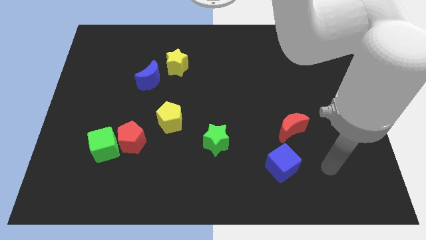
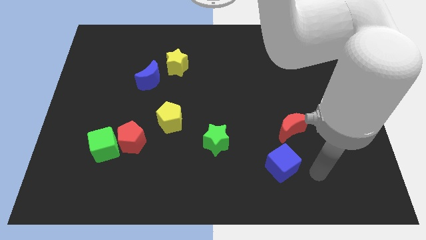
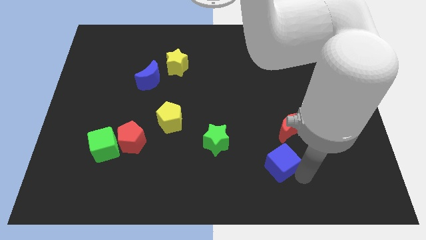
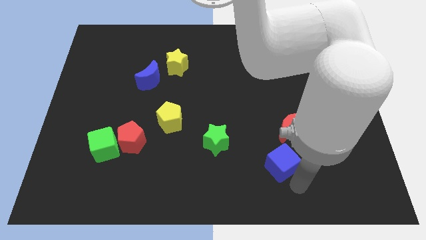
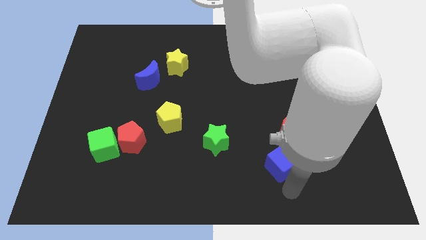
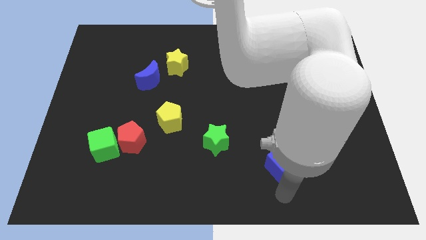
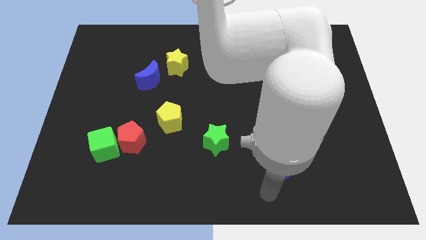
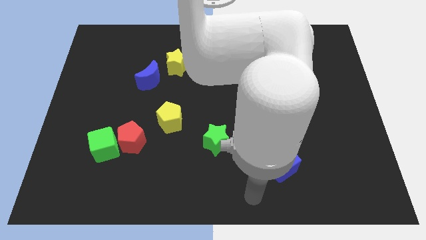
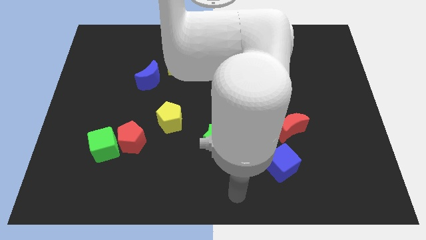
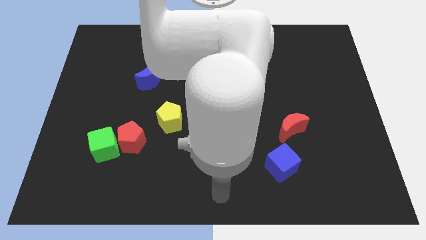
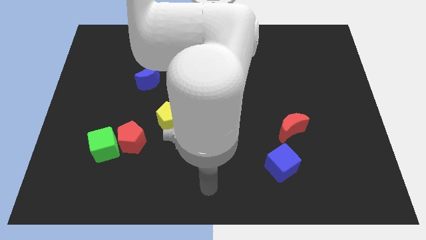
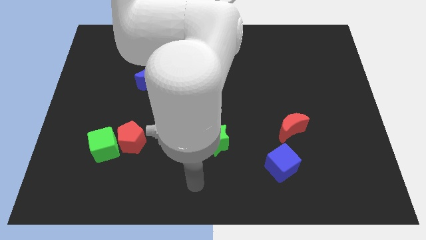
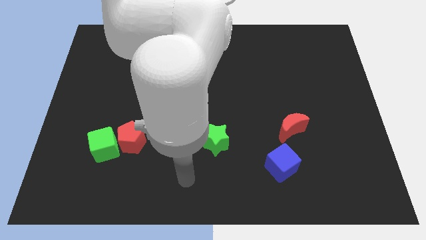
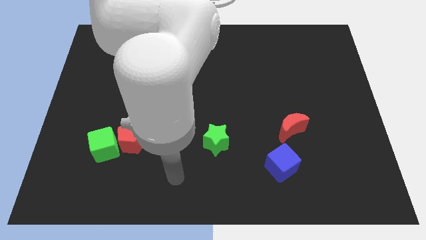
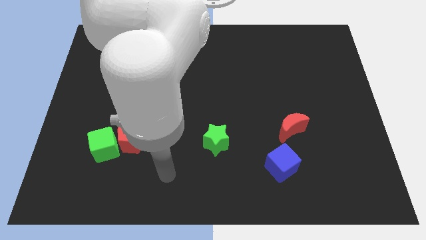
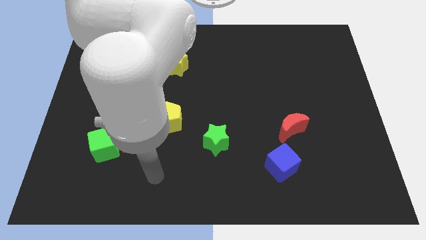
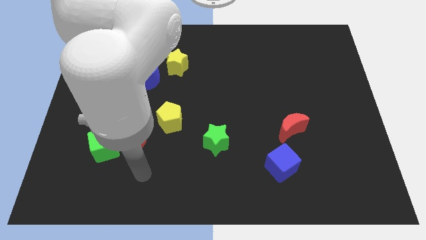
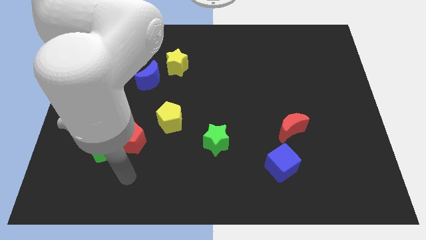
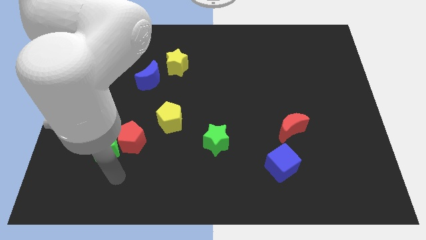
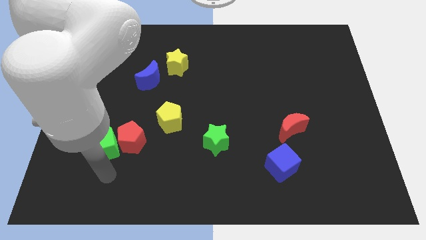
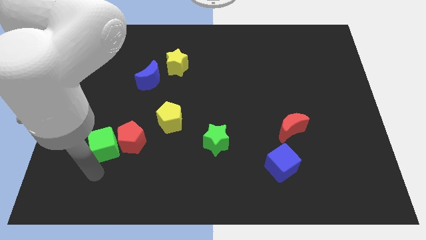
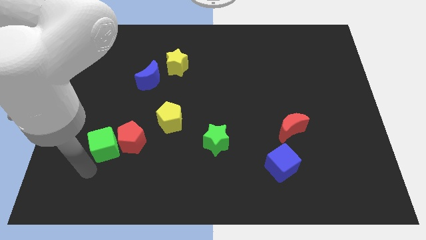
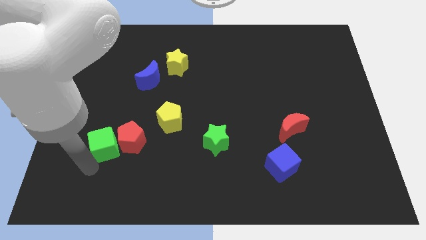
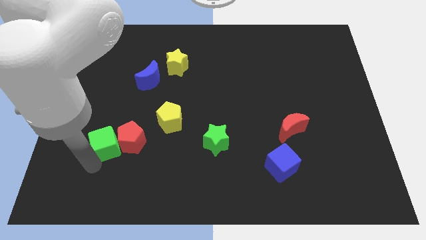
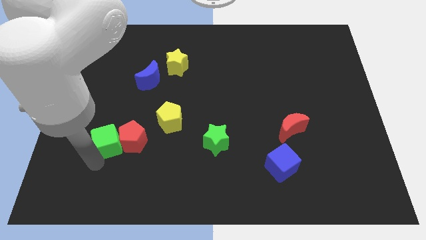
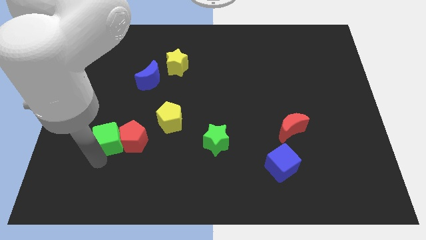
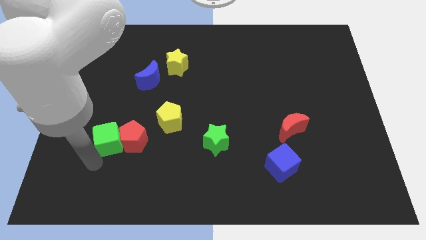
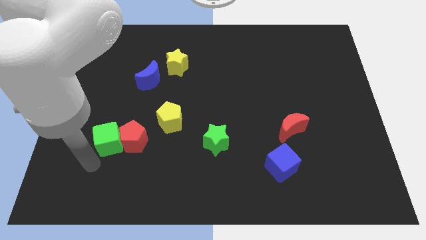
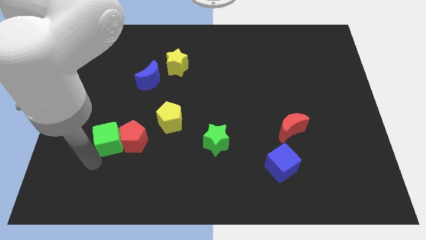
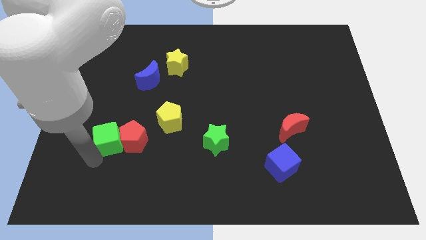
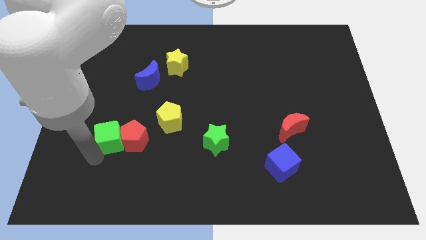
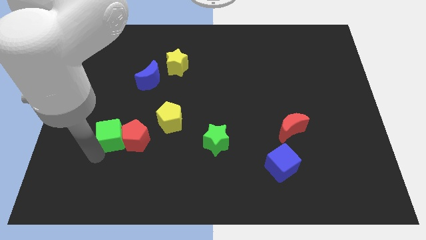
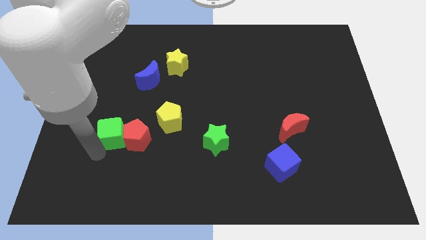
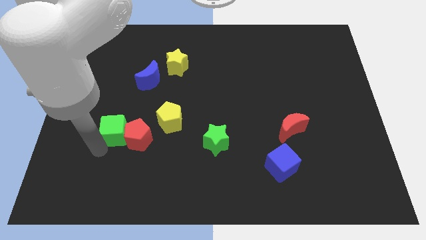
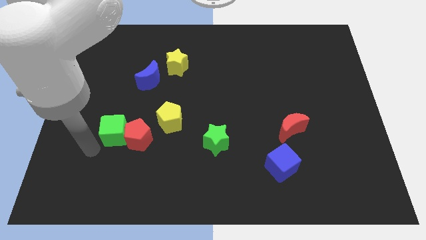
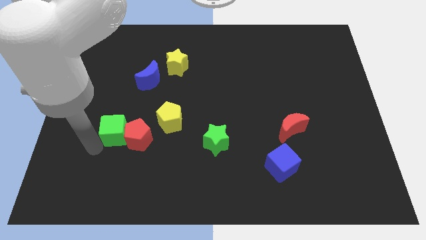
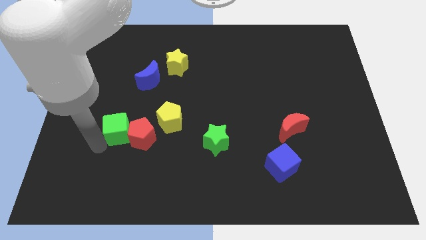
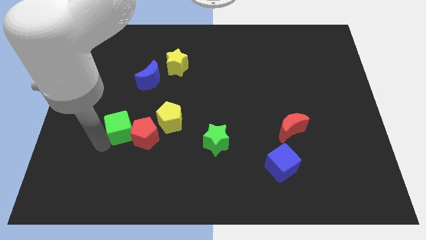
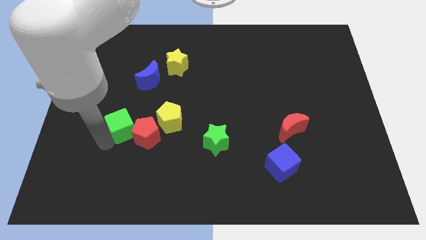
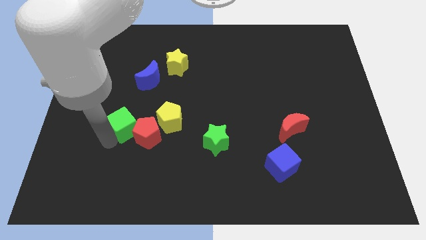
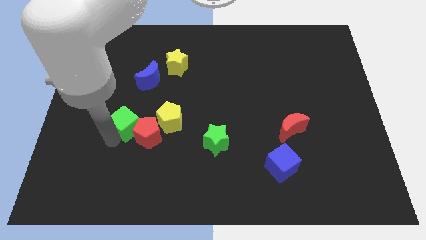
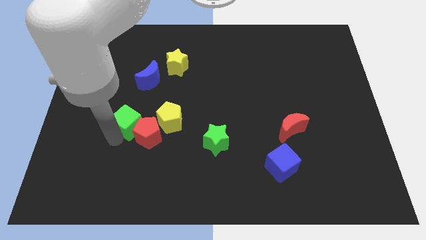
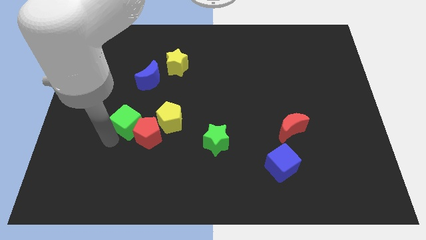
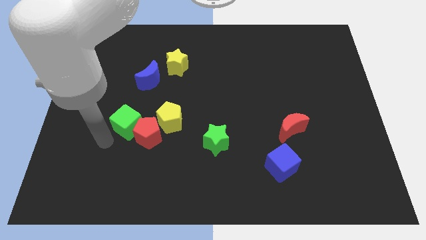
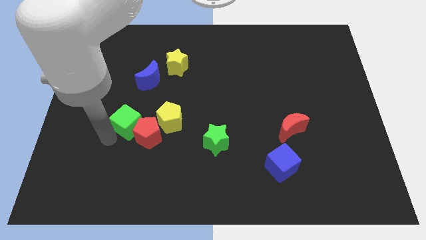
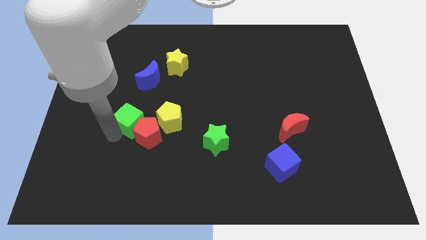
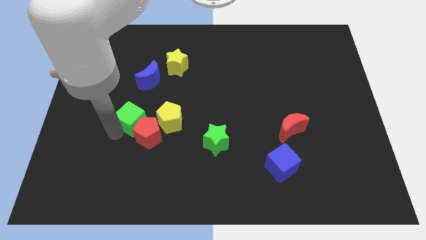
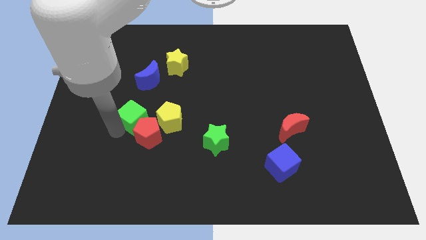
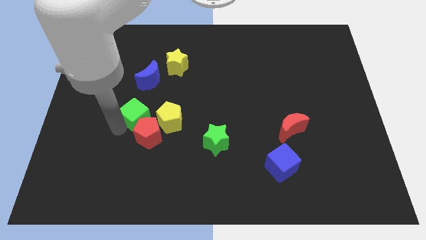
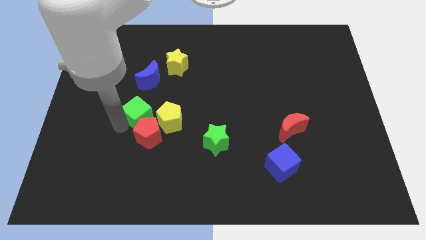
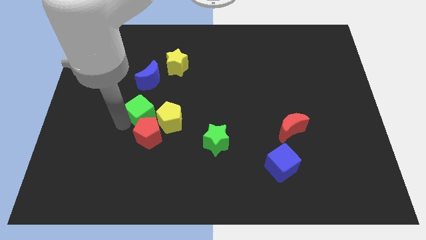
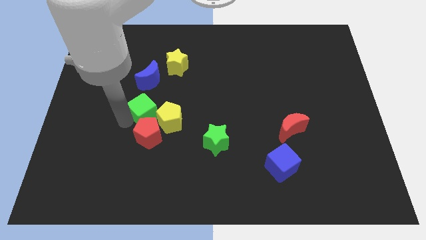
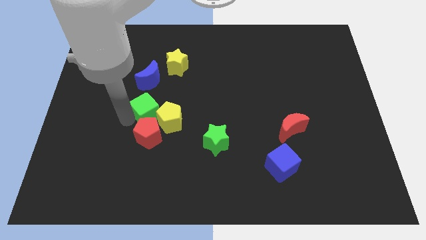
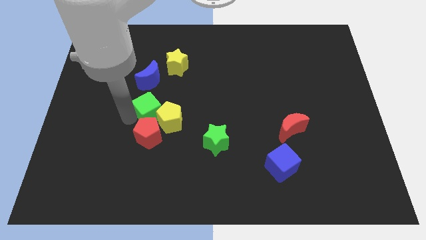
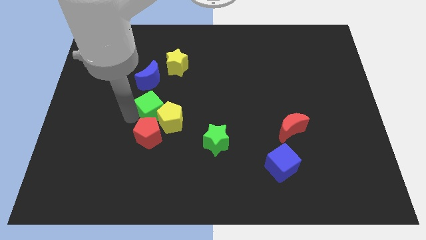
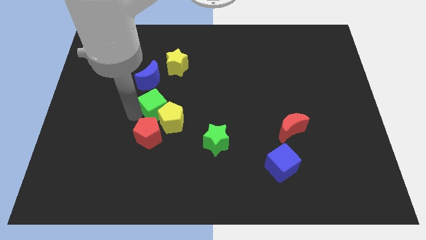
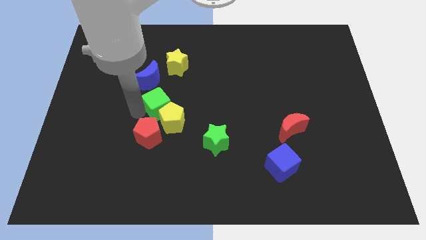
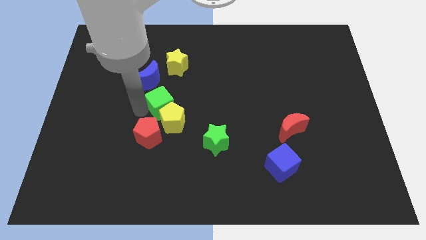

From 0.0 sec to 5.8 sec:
put the green cube to the middle
